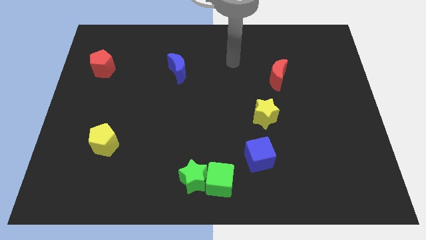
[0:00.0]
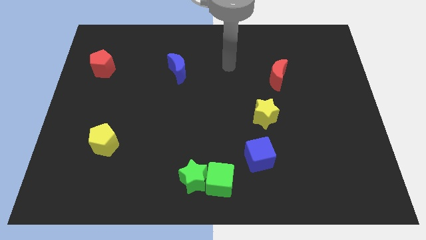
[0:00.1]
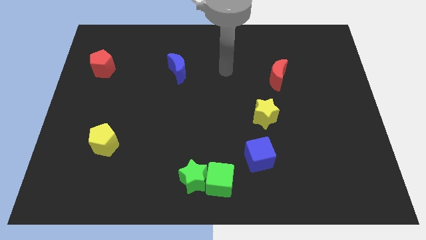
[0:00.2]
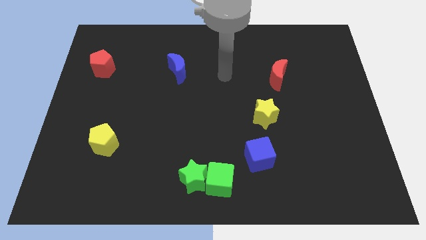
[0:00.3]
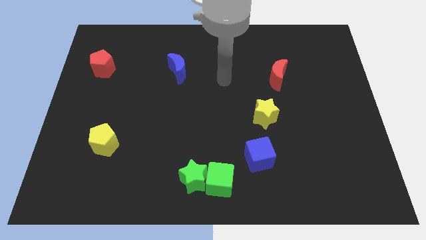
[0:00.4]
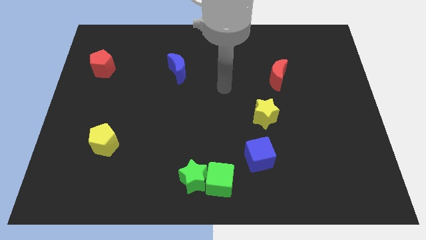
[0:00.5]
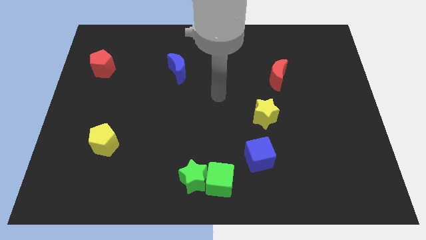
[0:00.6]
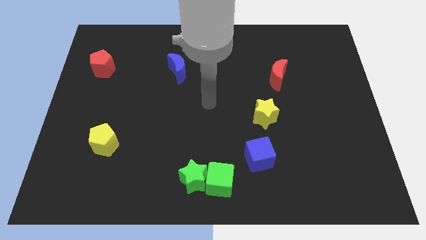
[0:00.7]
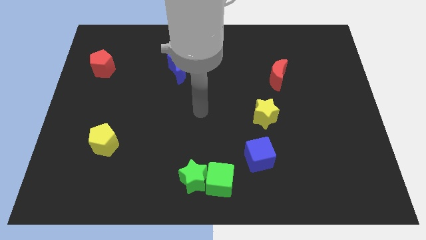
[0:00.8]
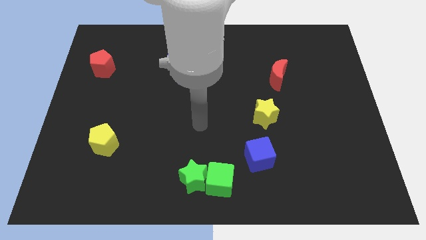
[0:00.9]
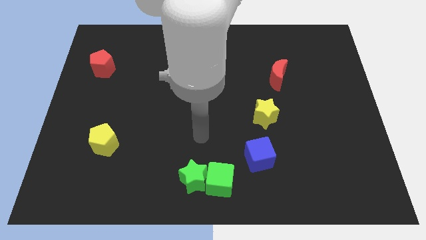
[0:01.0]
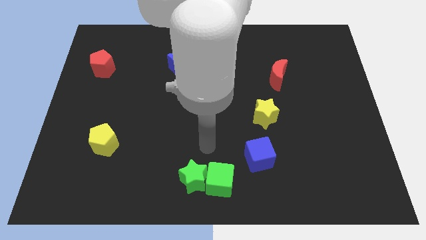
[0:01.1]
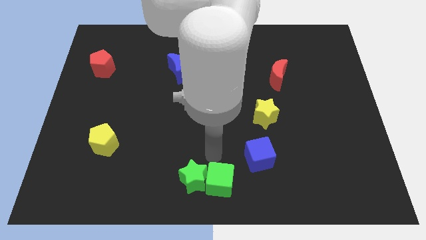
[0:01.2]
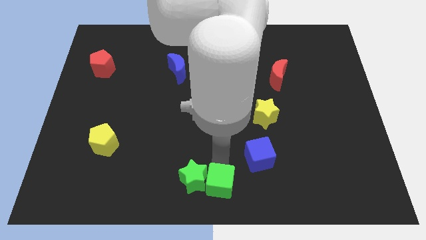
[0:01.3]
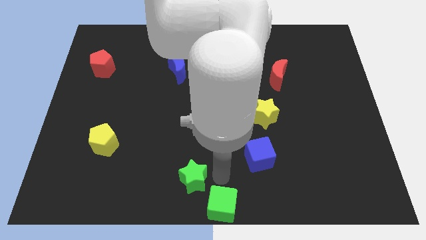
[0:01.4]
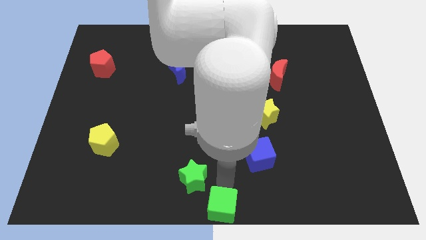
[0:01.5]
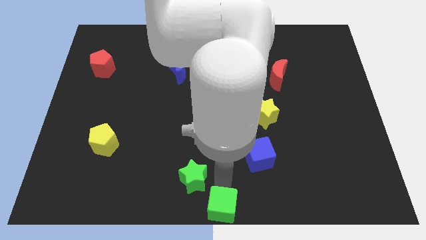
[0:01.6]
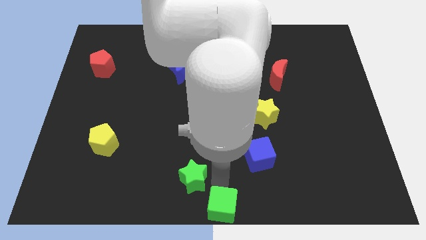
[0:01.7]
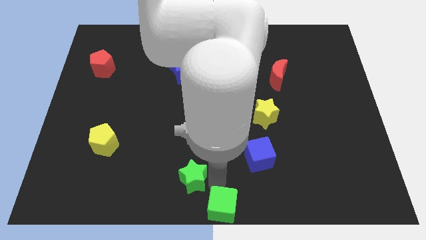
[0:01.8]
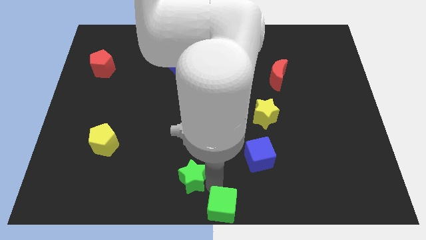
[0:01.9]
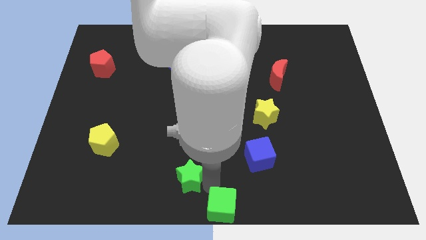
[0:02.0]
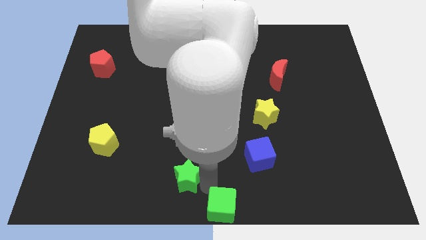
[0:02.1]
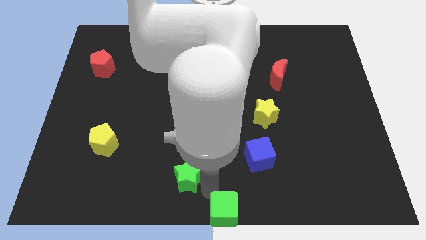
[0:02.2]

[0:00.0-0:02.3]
move the green star away from the green cube

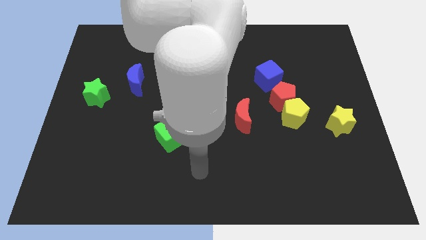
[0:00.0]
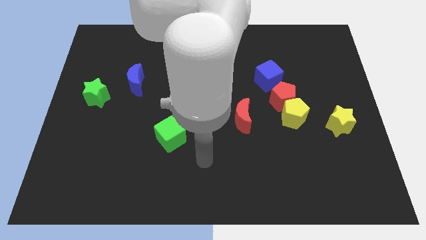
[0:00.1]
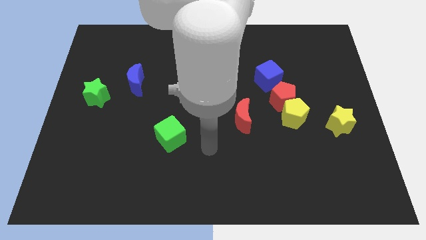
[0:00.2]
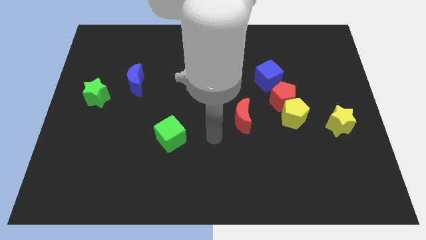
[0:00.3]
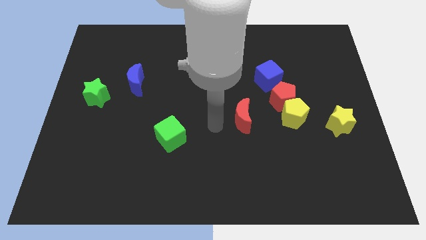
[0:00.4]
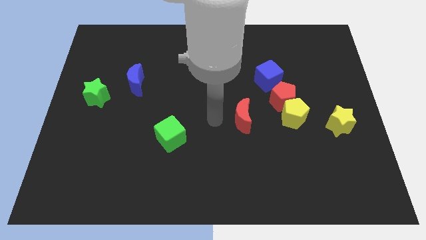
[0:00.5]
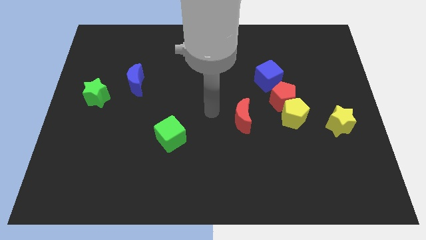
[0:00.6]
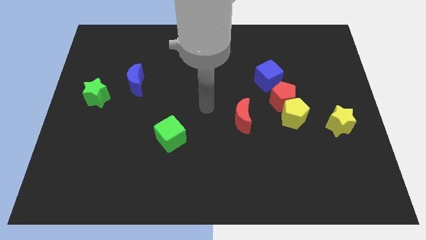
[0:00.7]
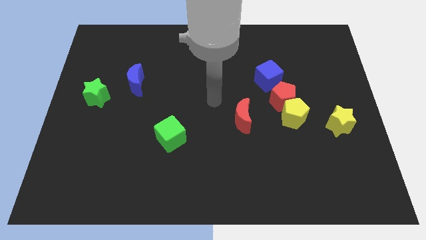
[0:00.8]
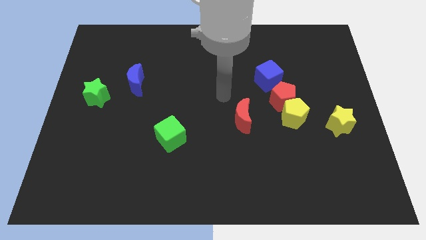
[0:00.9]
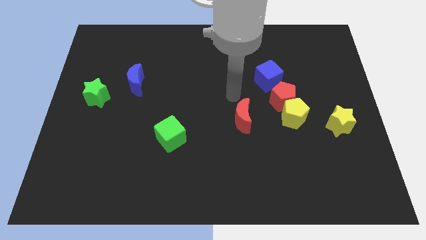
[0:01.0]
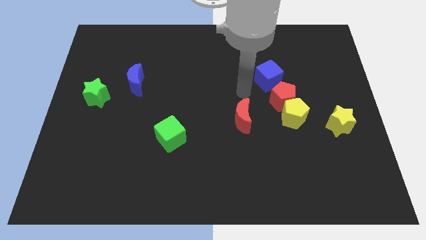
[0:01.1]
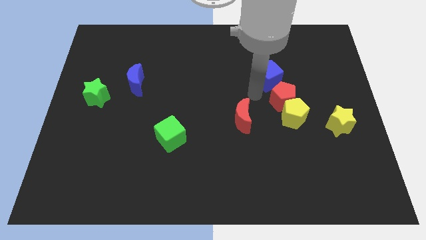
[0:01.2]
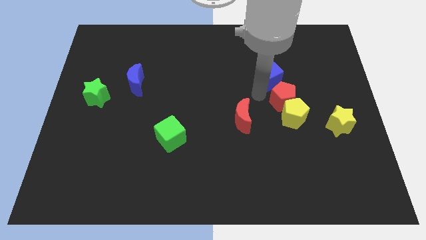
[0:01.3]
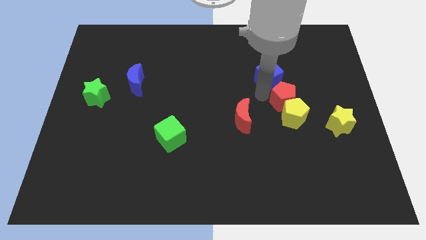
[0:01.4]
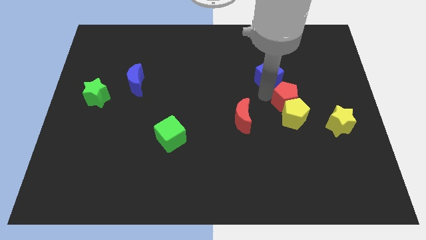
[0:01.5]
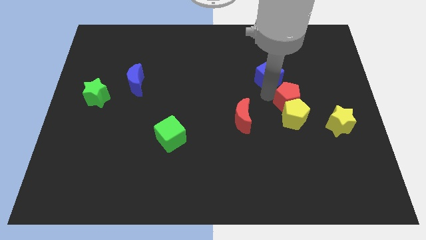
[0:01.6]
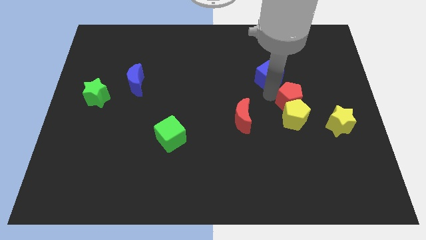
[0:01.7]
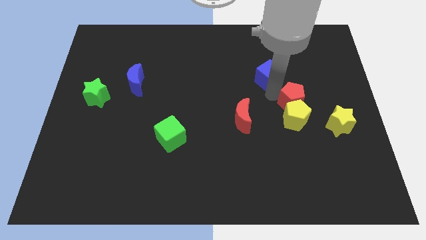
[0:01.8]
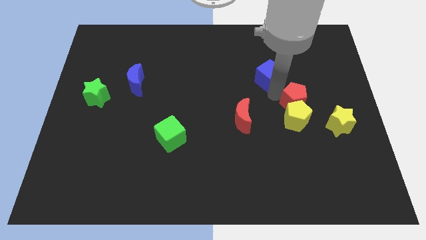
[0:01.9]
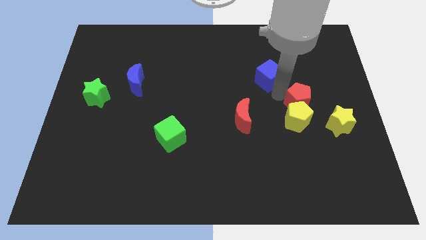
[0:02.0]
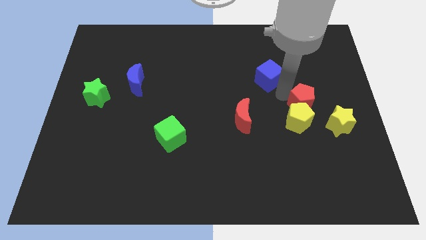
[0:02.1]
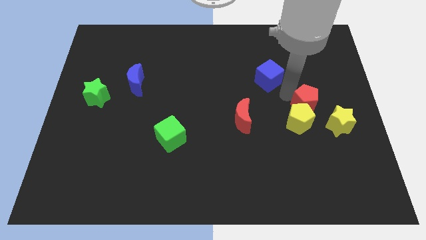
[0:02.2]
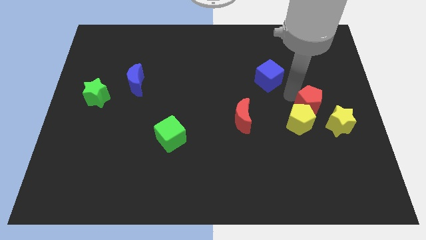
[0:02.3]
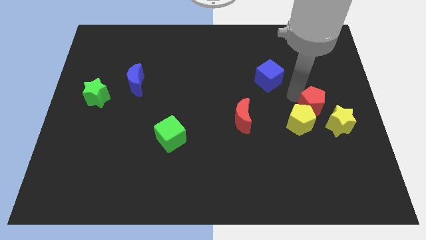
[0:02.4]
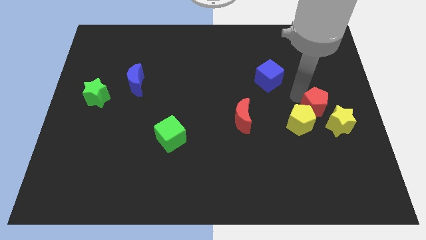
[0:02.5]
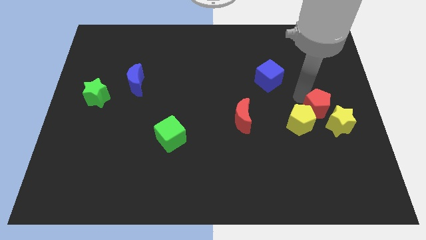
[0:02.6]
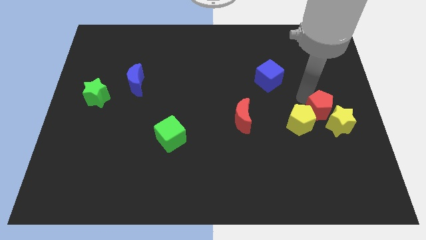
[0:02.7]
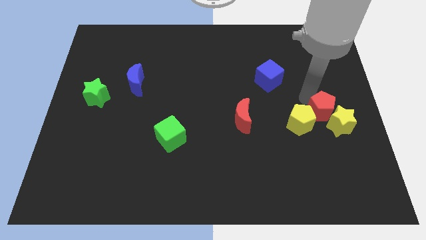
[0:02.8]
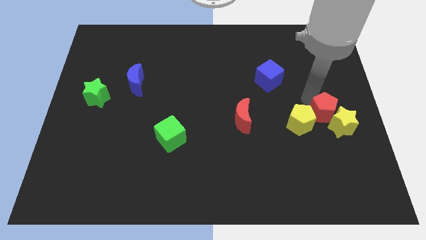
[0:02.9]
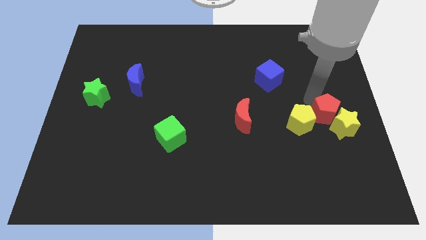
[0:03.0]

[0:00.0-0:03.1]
move the red pentagon away from the yellow pentagon and blue cube

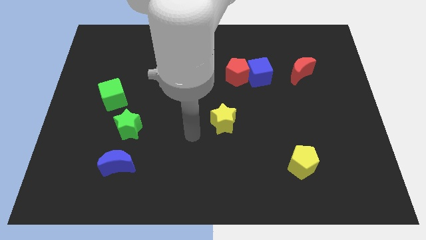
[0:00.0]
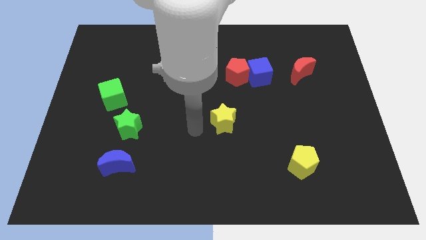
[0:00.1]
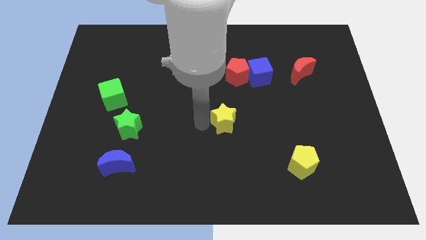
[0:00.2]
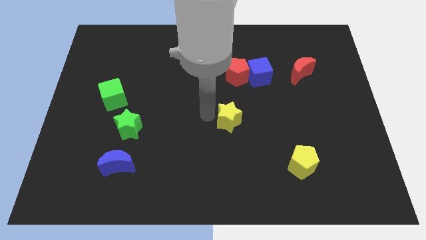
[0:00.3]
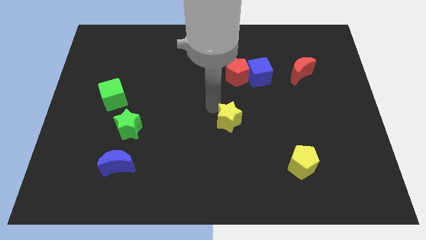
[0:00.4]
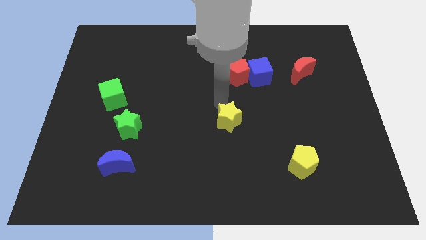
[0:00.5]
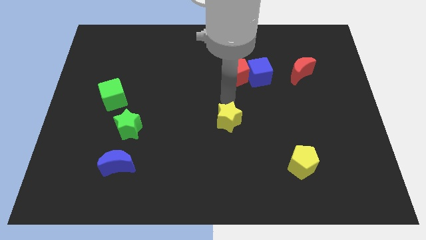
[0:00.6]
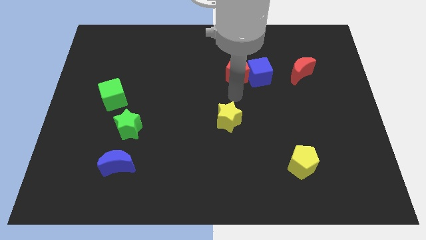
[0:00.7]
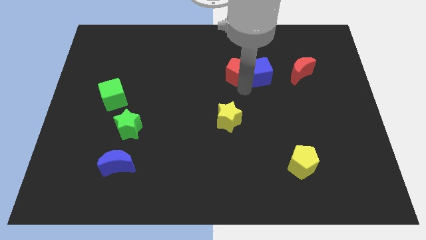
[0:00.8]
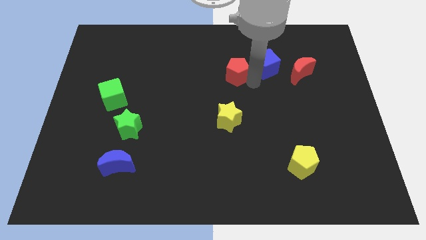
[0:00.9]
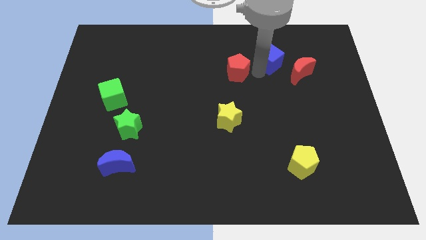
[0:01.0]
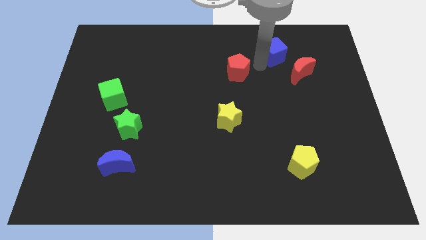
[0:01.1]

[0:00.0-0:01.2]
move the red pentagon away from the blue cube

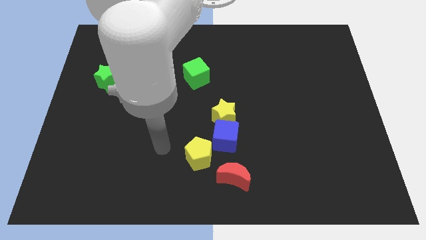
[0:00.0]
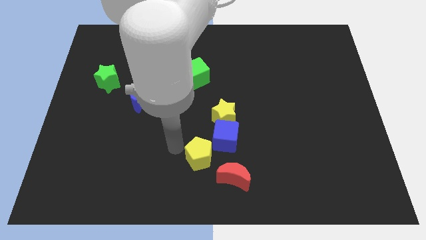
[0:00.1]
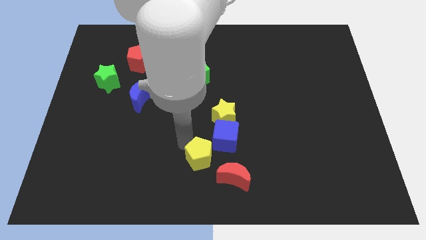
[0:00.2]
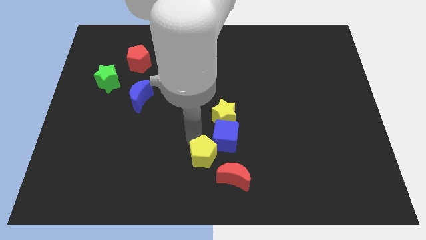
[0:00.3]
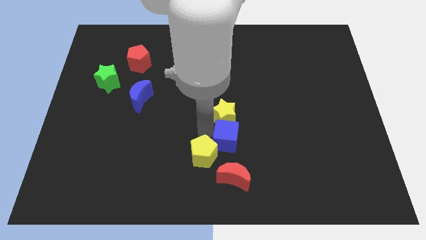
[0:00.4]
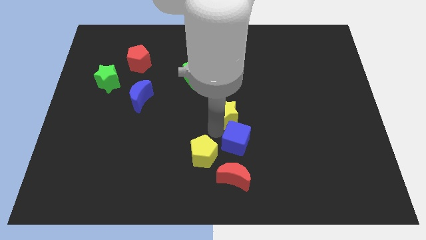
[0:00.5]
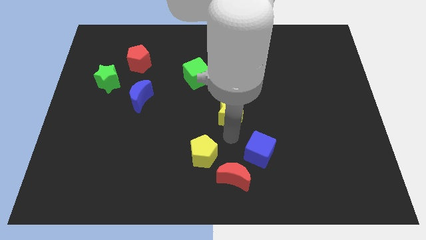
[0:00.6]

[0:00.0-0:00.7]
move the yellow star away from the blue cube

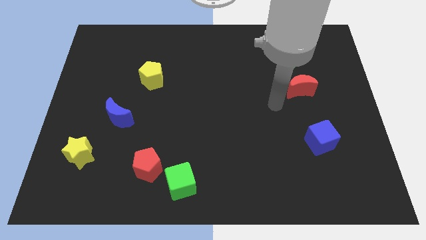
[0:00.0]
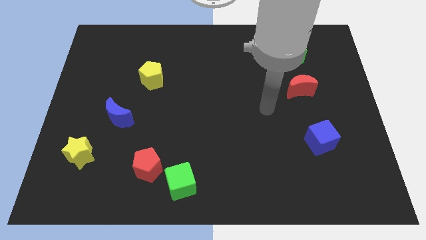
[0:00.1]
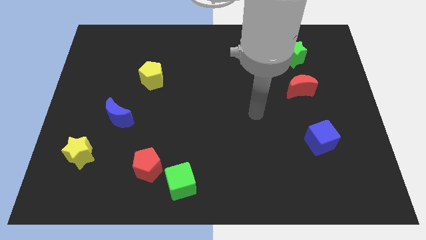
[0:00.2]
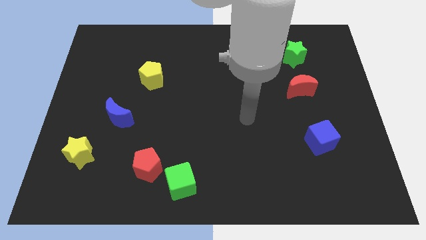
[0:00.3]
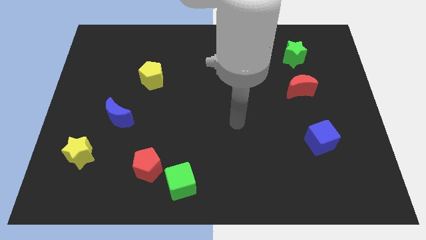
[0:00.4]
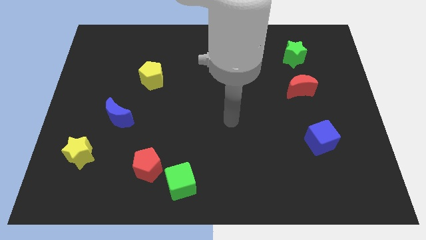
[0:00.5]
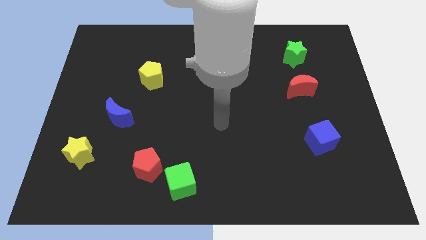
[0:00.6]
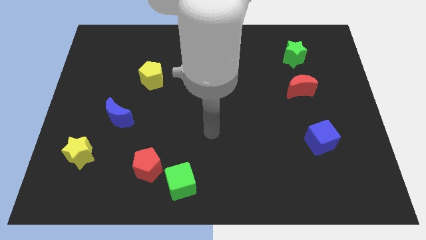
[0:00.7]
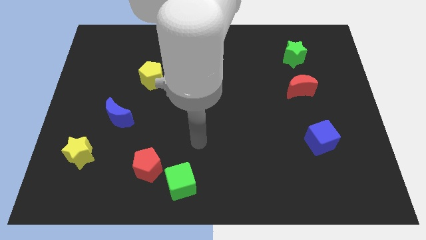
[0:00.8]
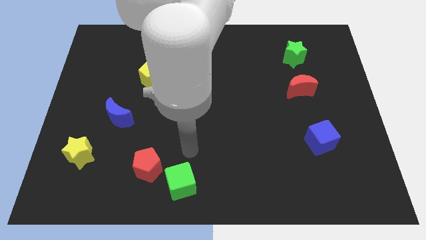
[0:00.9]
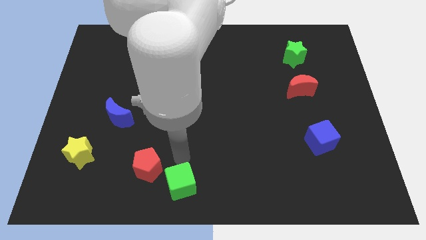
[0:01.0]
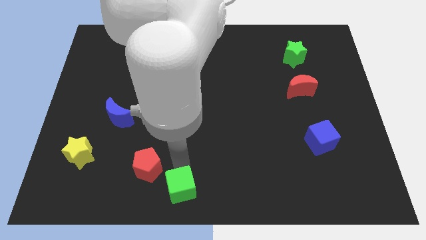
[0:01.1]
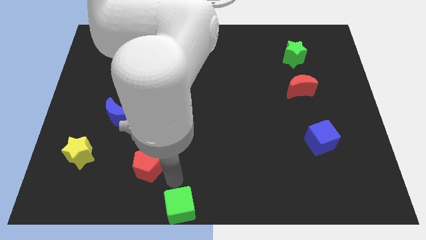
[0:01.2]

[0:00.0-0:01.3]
separate the red pentagon from the green cube

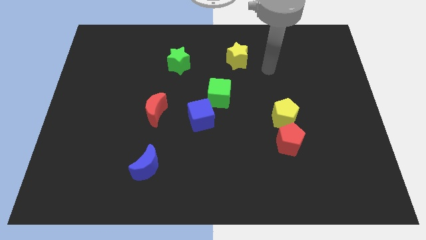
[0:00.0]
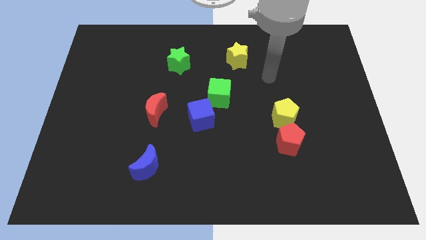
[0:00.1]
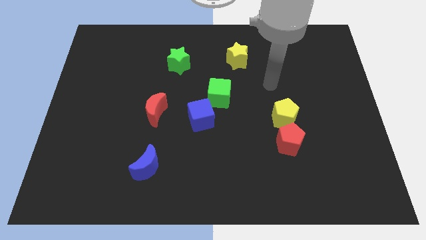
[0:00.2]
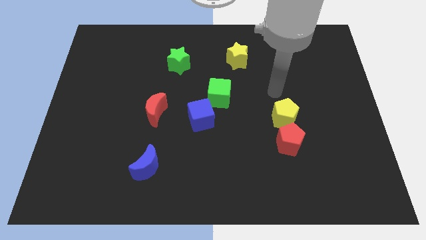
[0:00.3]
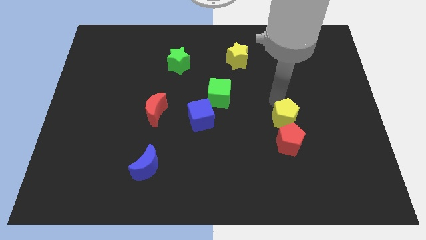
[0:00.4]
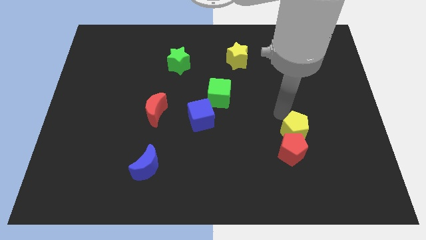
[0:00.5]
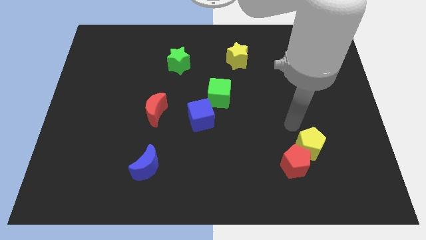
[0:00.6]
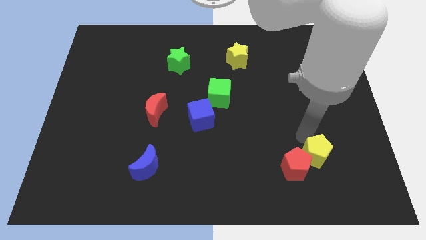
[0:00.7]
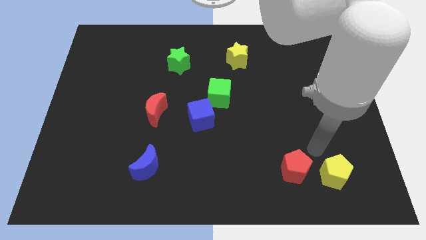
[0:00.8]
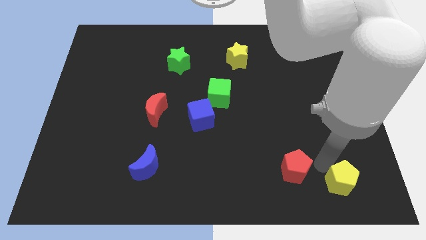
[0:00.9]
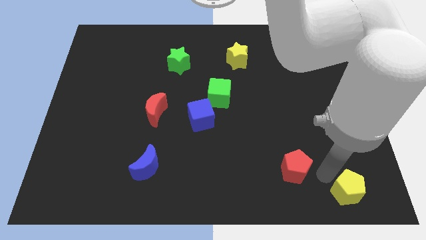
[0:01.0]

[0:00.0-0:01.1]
pull the red pentagon apart from the yellow pentagon
